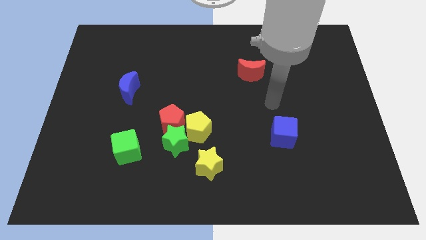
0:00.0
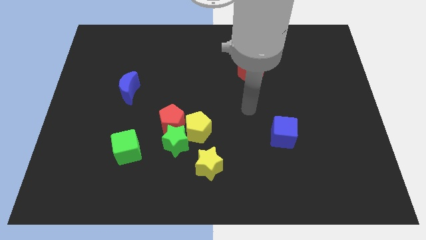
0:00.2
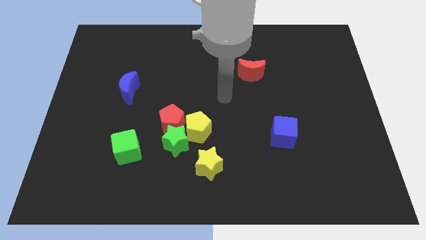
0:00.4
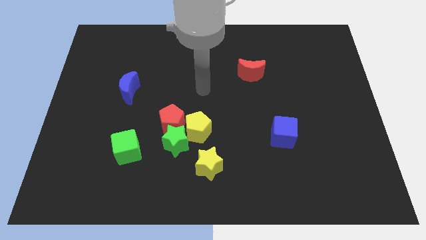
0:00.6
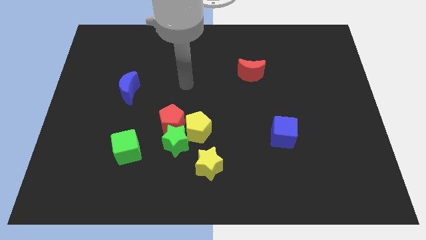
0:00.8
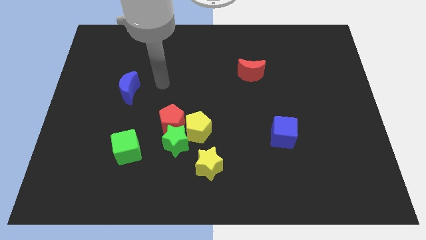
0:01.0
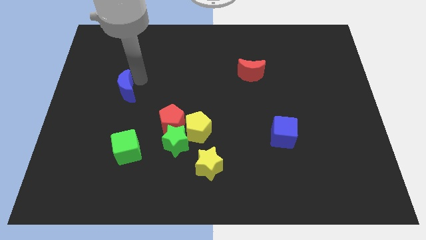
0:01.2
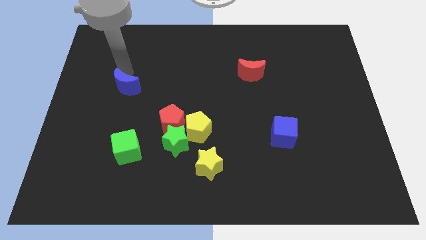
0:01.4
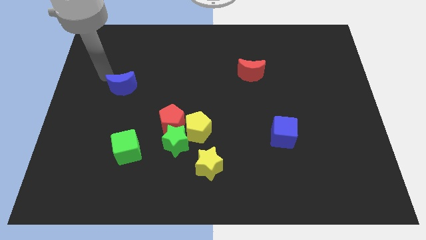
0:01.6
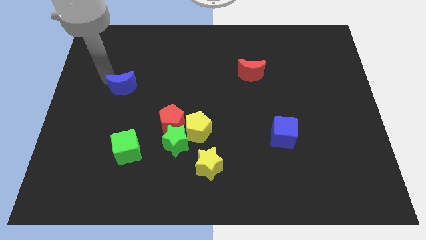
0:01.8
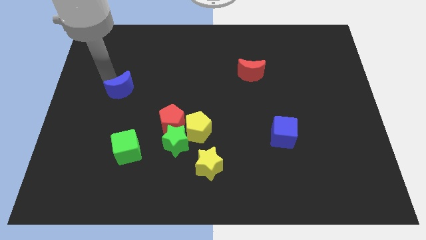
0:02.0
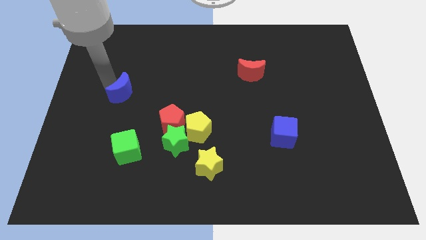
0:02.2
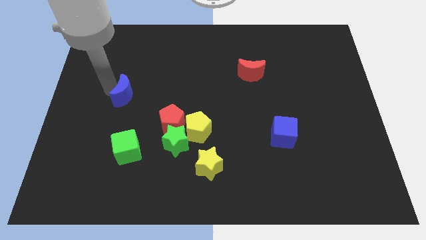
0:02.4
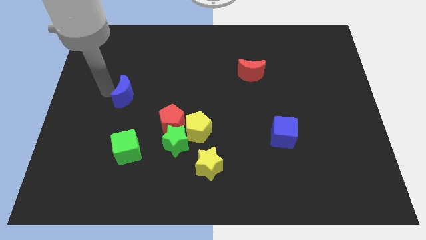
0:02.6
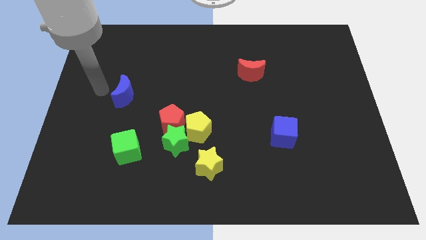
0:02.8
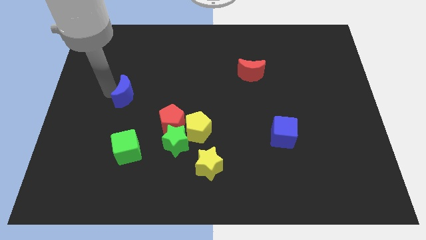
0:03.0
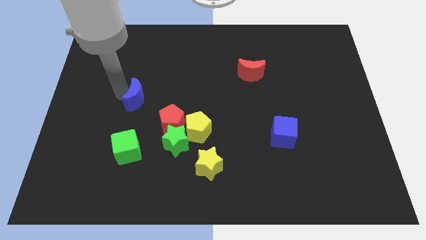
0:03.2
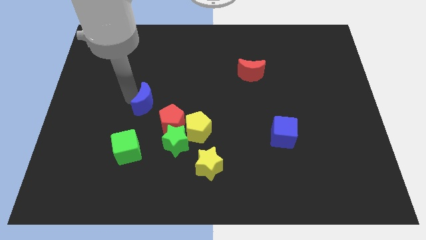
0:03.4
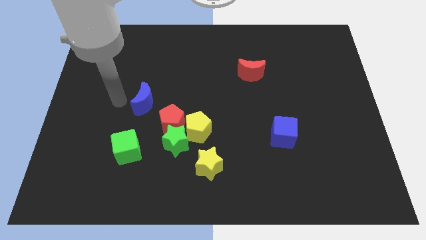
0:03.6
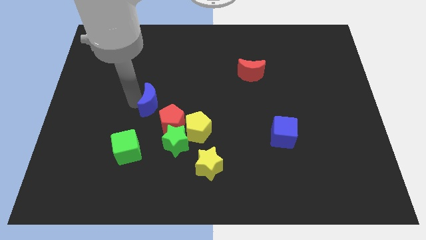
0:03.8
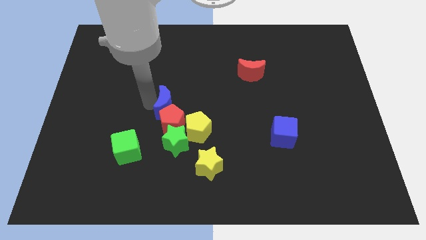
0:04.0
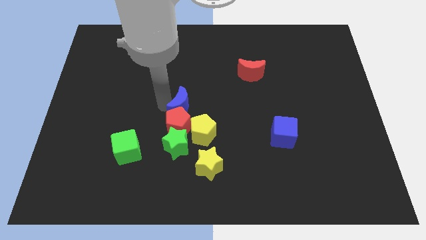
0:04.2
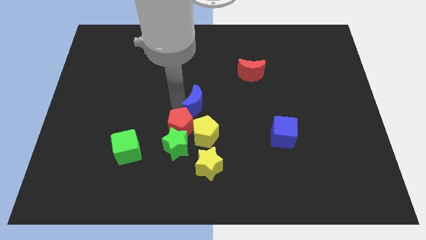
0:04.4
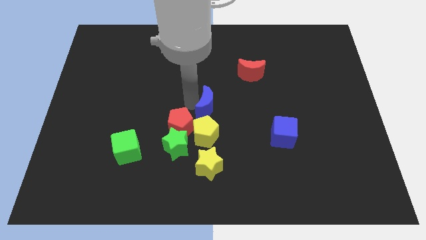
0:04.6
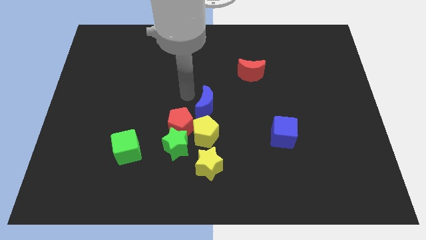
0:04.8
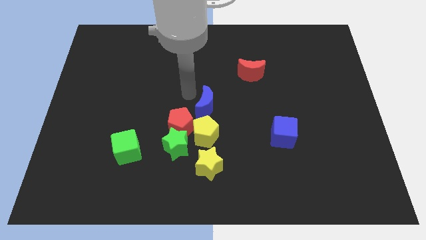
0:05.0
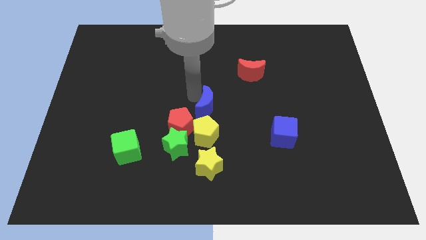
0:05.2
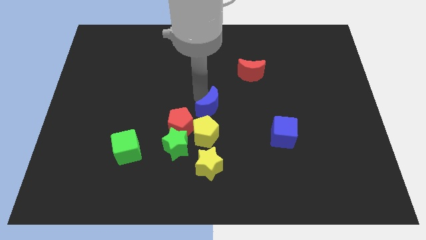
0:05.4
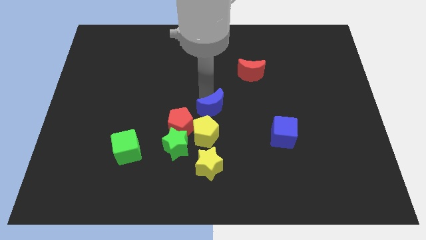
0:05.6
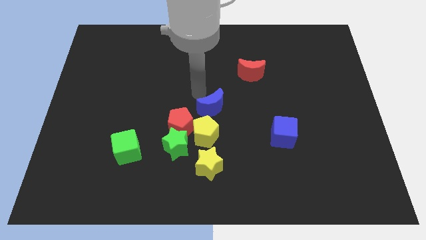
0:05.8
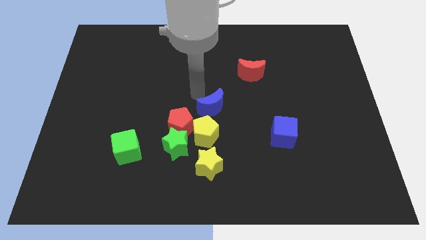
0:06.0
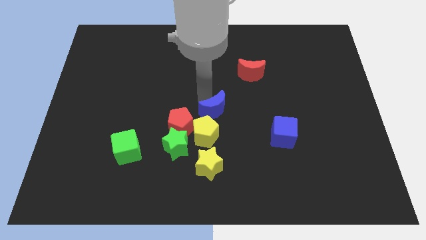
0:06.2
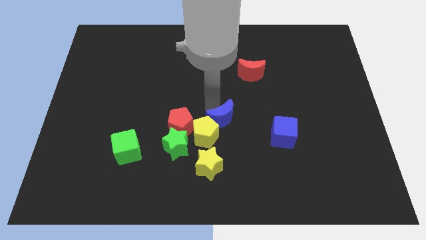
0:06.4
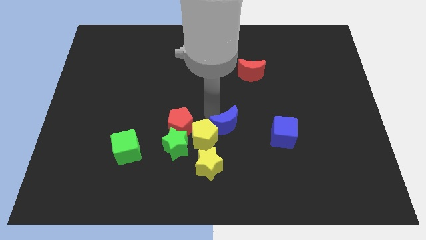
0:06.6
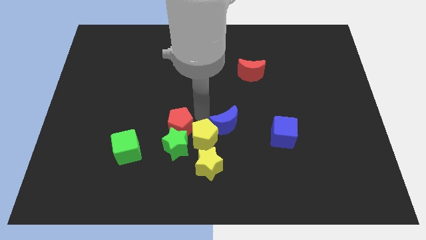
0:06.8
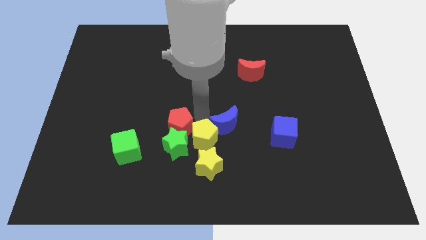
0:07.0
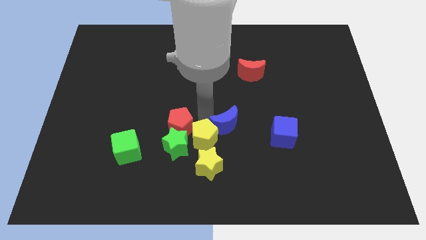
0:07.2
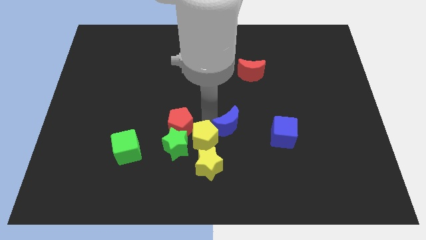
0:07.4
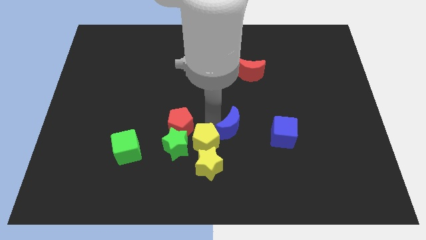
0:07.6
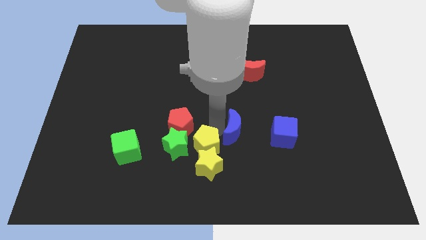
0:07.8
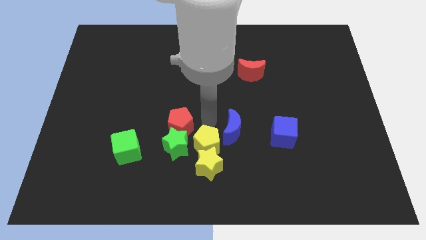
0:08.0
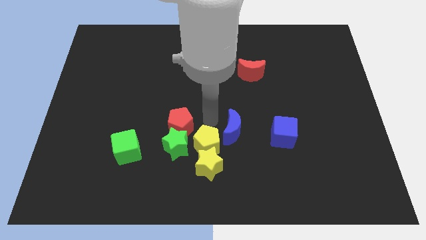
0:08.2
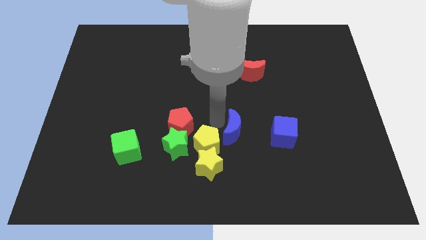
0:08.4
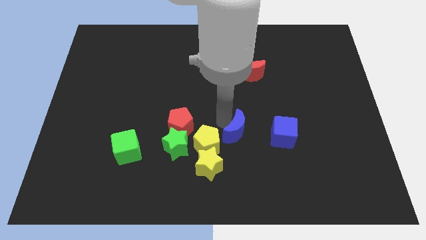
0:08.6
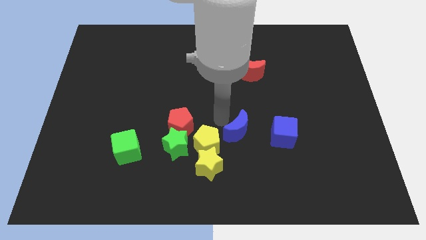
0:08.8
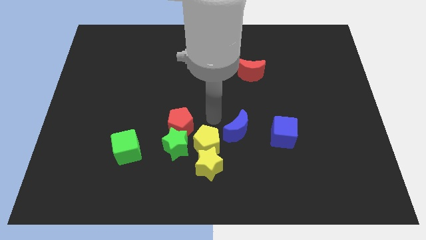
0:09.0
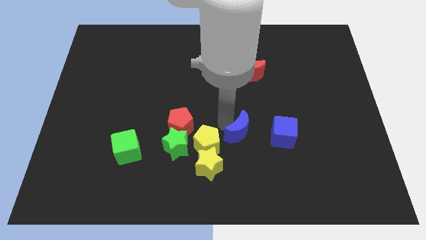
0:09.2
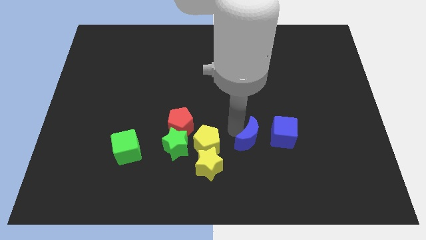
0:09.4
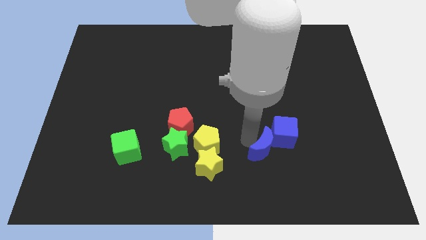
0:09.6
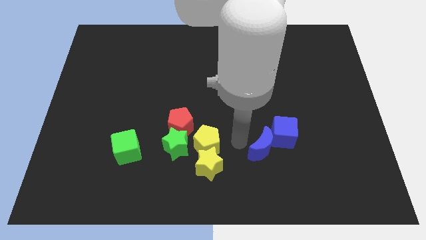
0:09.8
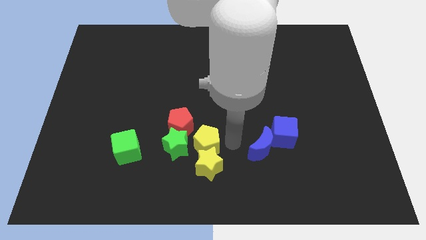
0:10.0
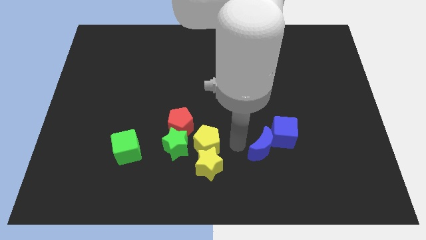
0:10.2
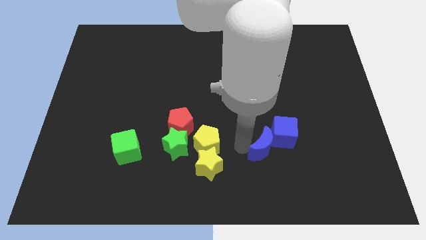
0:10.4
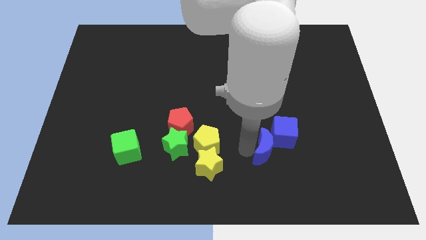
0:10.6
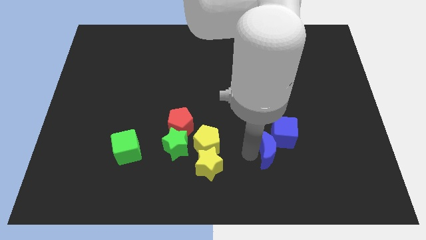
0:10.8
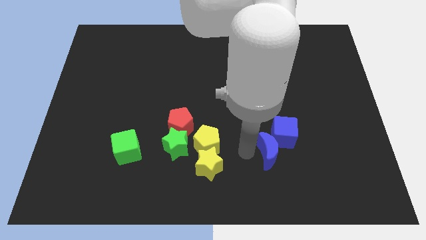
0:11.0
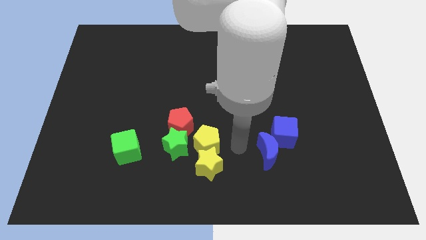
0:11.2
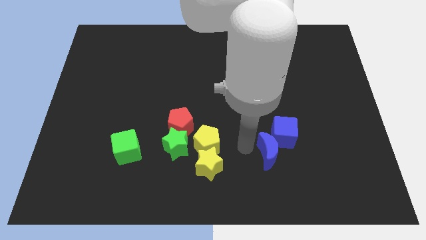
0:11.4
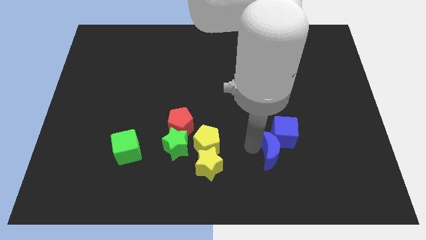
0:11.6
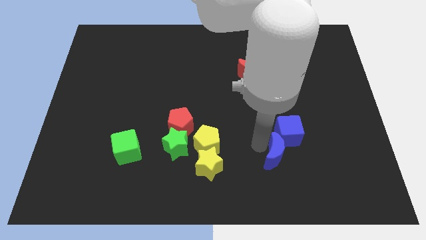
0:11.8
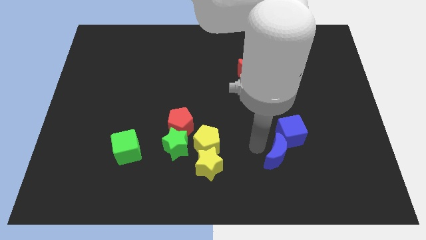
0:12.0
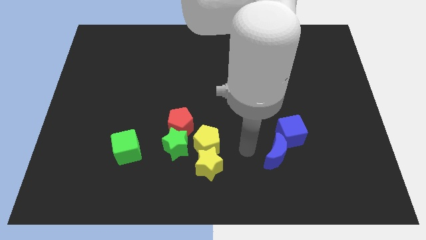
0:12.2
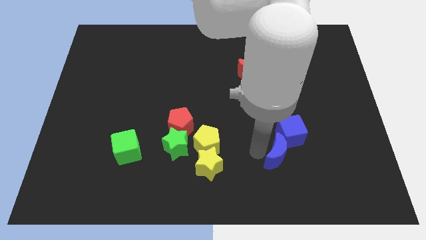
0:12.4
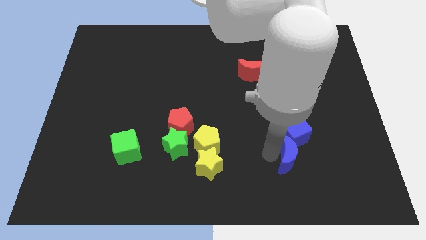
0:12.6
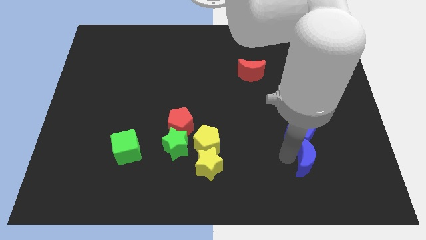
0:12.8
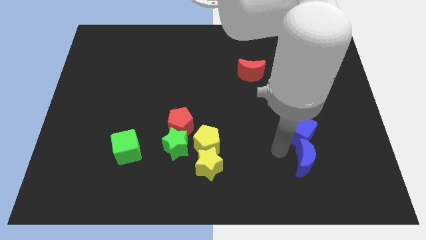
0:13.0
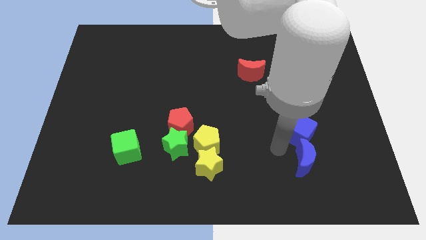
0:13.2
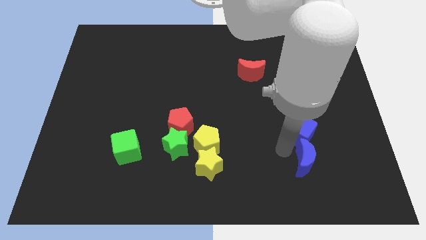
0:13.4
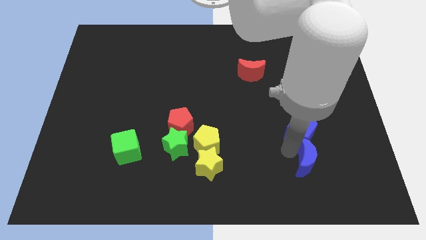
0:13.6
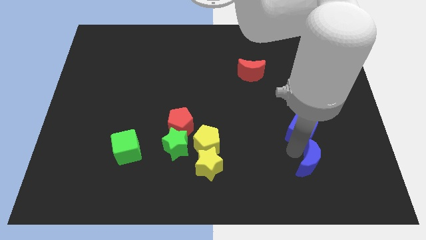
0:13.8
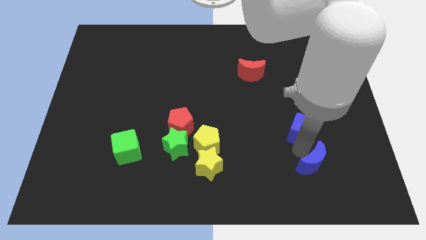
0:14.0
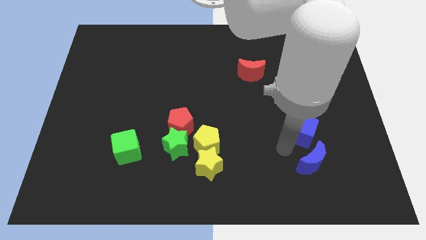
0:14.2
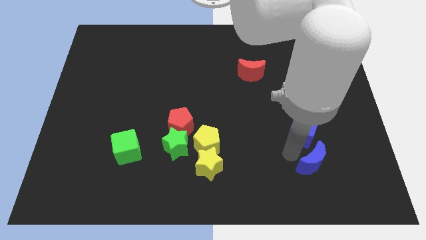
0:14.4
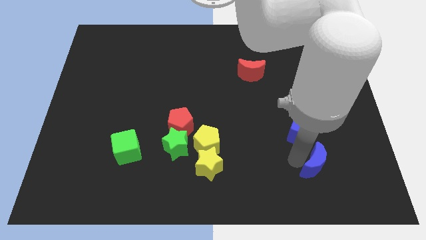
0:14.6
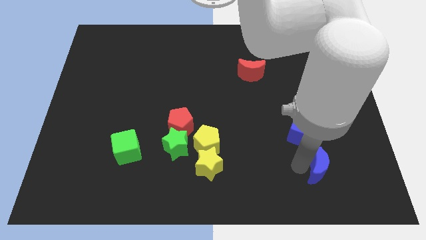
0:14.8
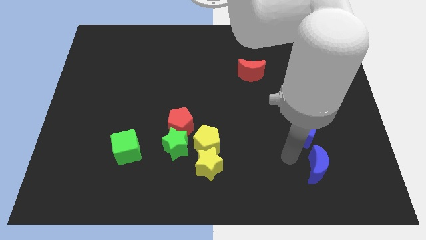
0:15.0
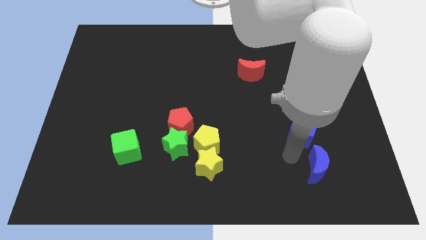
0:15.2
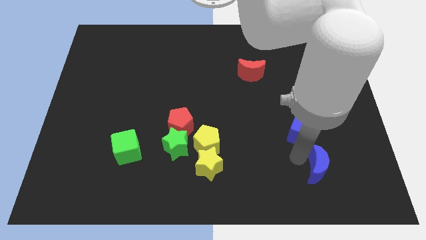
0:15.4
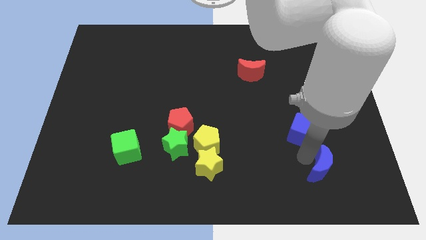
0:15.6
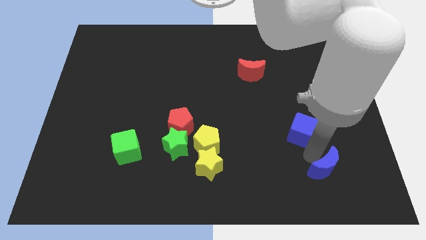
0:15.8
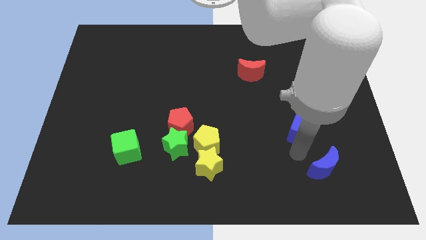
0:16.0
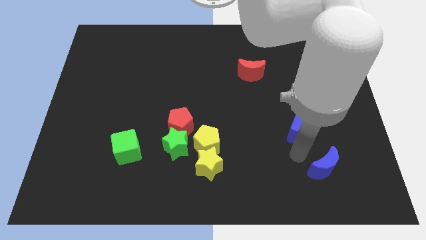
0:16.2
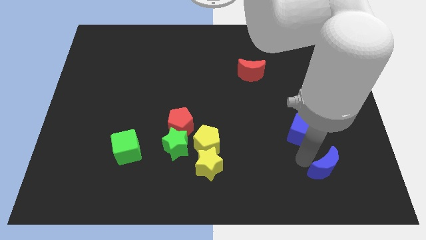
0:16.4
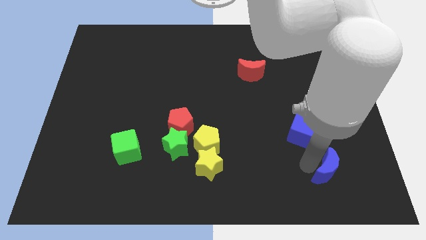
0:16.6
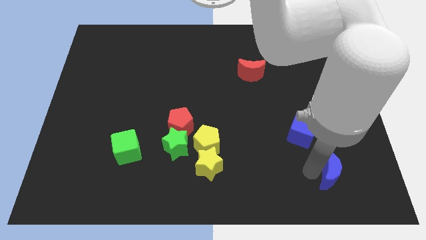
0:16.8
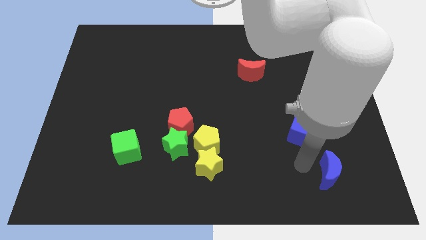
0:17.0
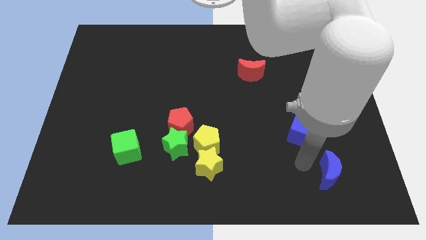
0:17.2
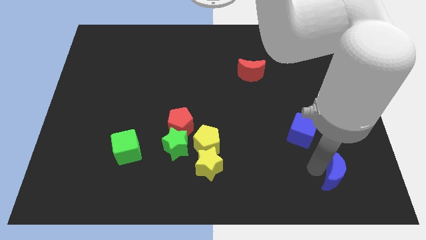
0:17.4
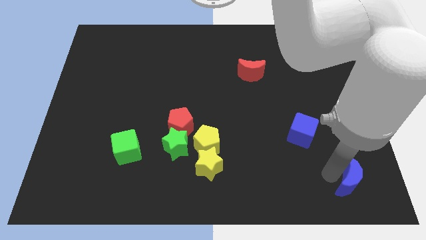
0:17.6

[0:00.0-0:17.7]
push the blue moon to the bottom right of the board
